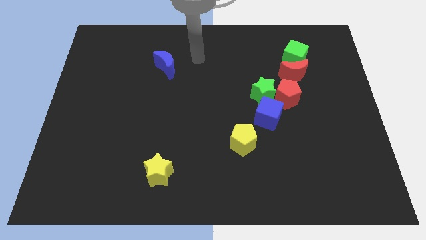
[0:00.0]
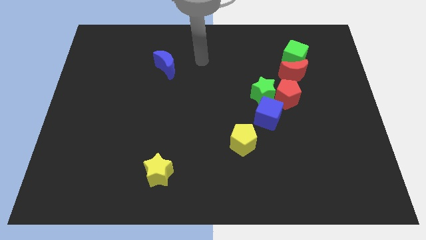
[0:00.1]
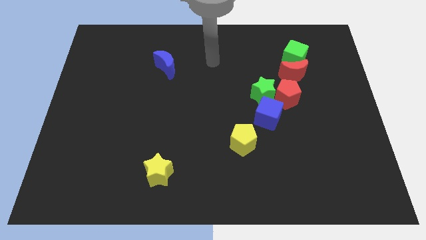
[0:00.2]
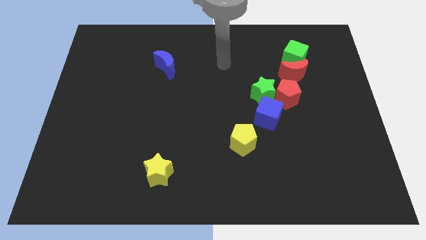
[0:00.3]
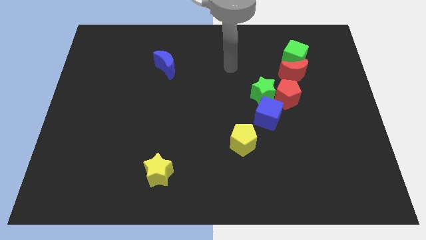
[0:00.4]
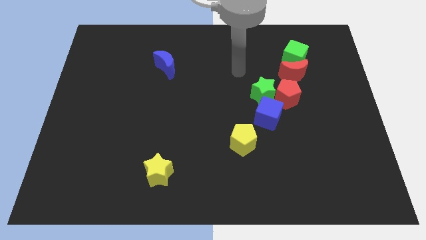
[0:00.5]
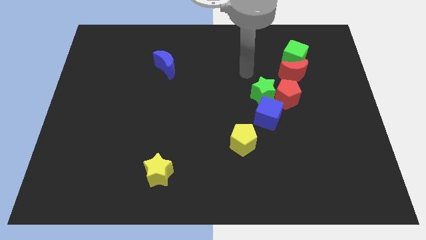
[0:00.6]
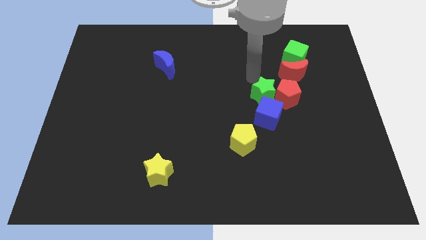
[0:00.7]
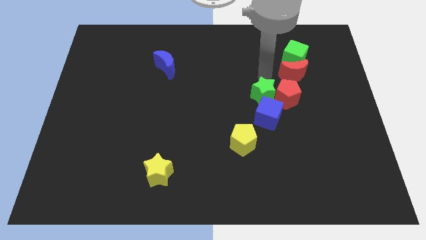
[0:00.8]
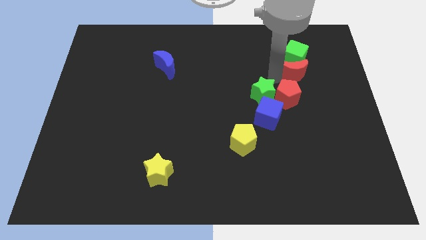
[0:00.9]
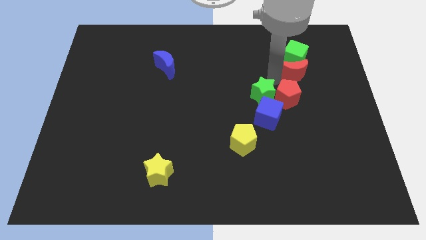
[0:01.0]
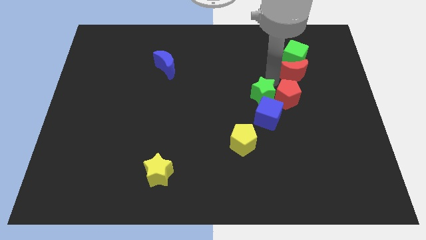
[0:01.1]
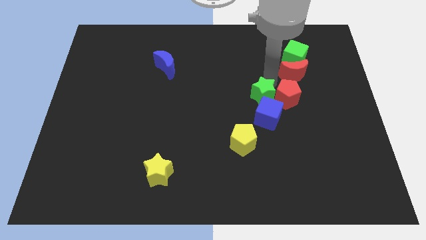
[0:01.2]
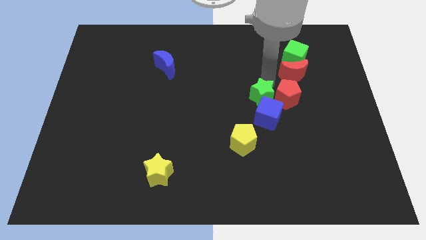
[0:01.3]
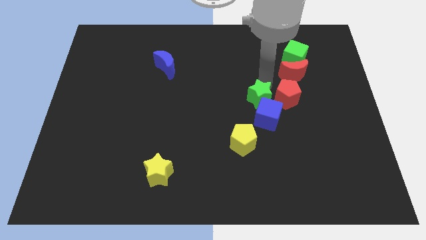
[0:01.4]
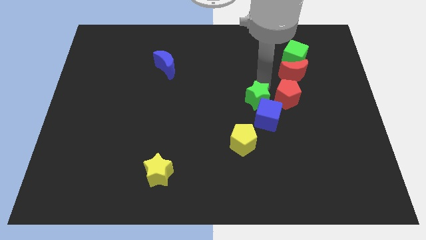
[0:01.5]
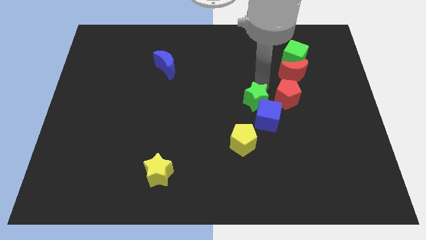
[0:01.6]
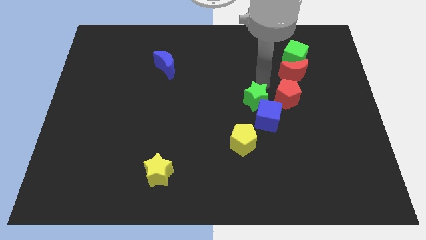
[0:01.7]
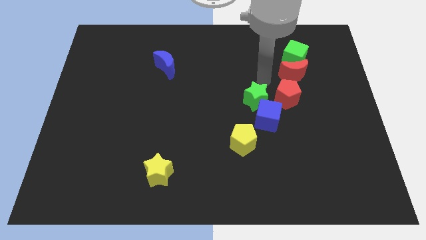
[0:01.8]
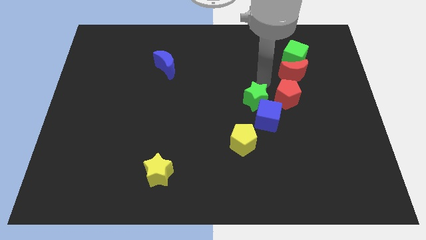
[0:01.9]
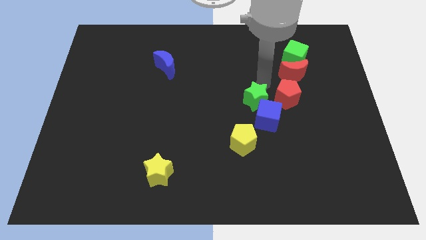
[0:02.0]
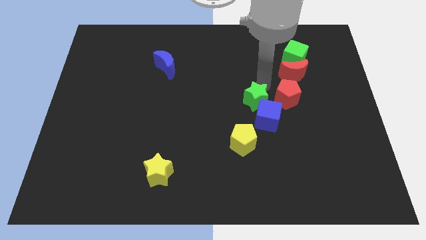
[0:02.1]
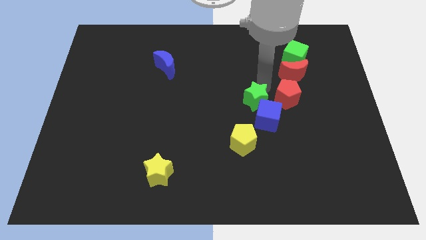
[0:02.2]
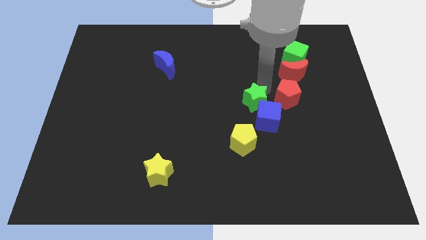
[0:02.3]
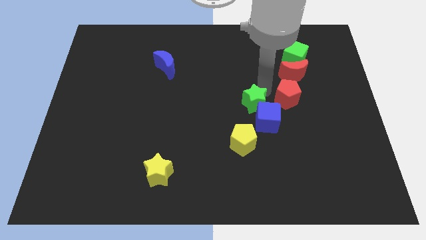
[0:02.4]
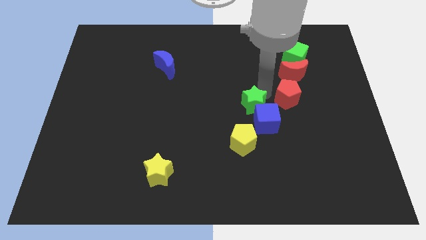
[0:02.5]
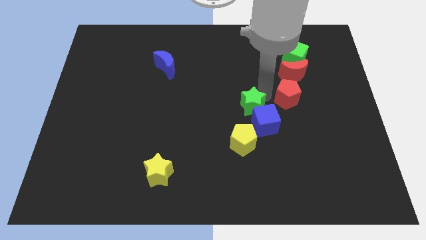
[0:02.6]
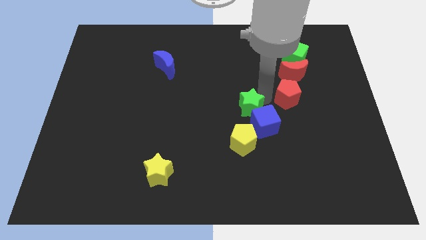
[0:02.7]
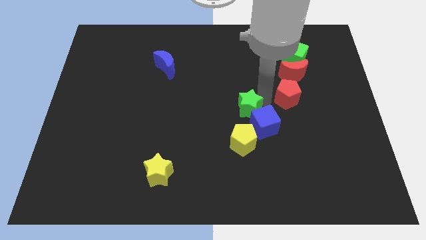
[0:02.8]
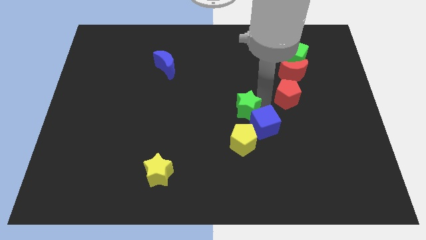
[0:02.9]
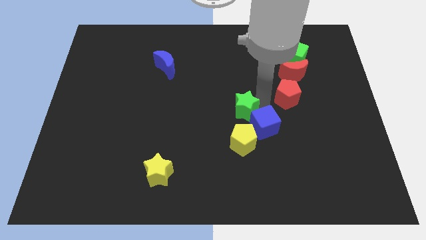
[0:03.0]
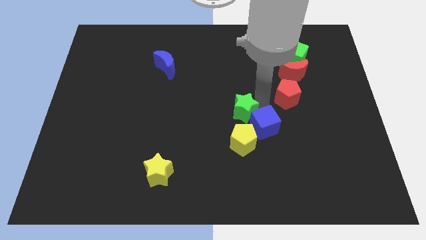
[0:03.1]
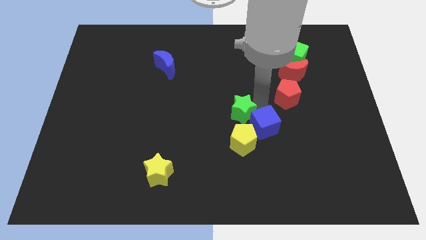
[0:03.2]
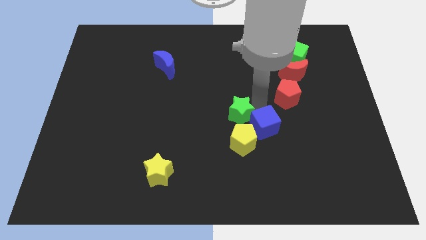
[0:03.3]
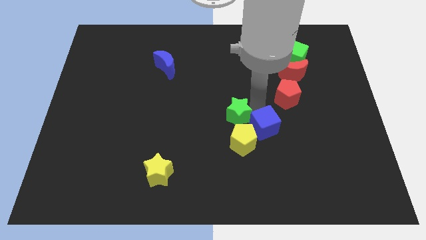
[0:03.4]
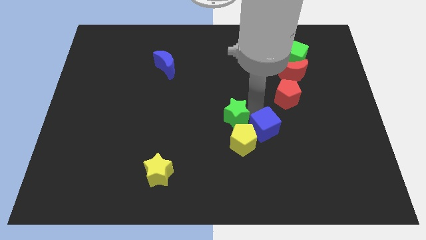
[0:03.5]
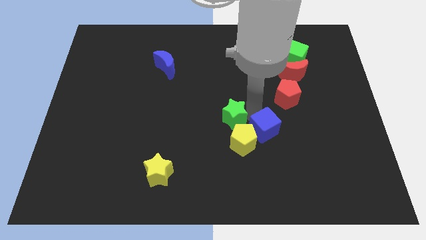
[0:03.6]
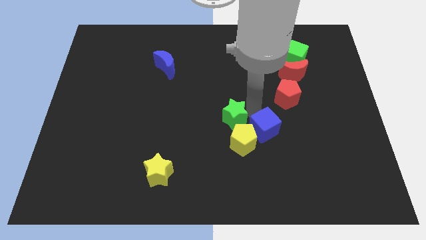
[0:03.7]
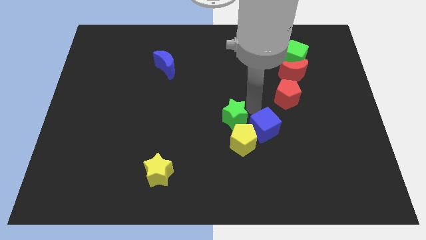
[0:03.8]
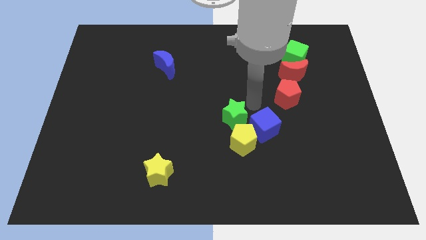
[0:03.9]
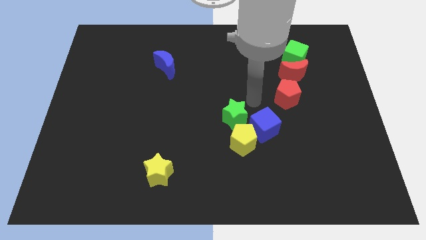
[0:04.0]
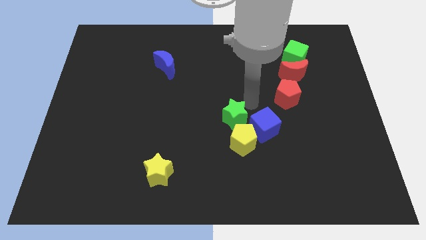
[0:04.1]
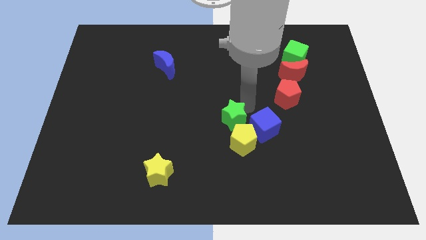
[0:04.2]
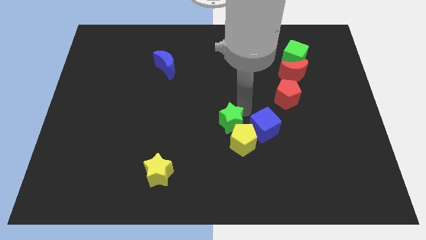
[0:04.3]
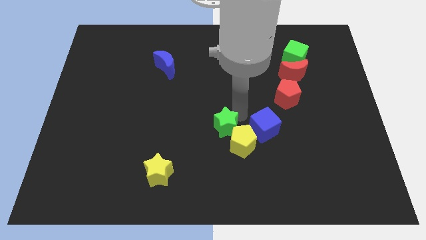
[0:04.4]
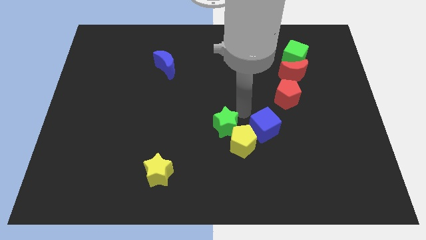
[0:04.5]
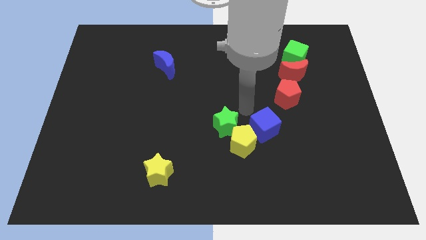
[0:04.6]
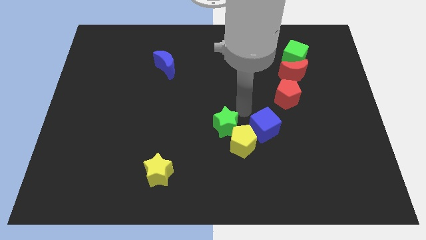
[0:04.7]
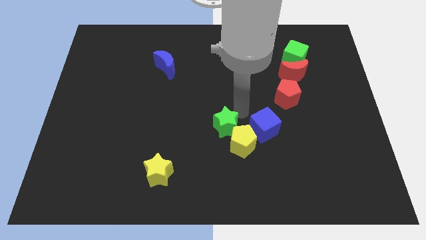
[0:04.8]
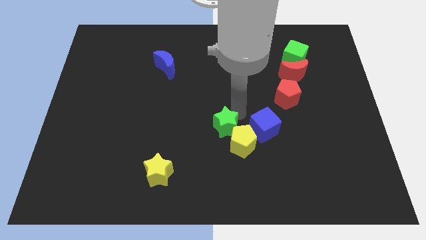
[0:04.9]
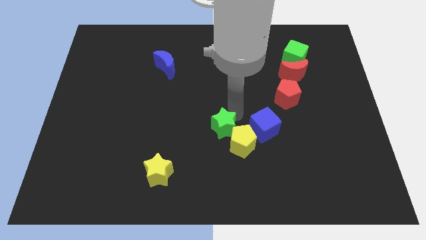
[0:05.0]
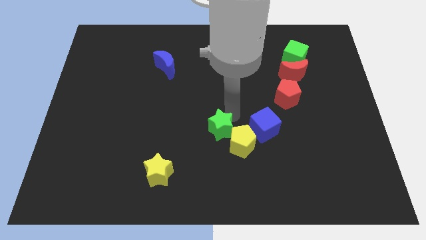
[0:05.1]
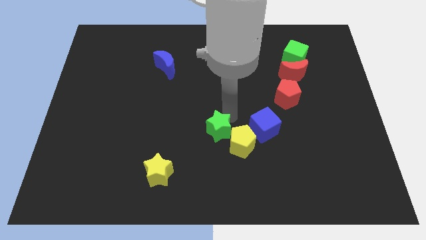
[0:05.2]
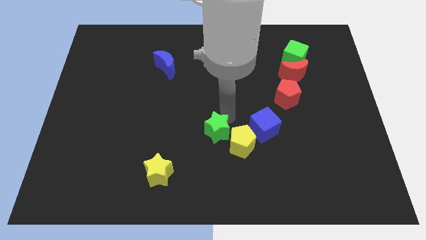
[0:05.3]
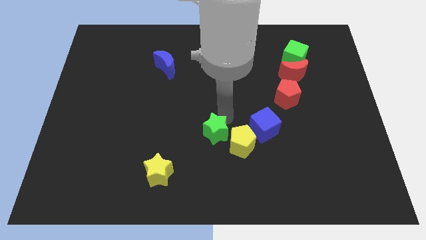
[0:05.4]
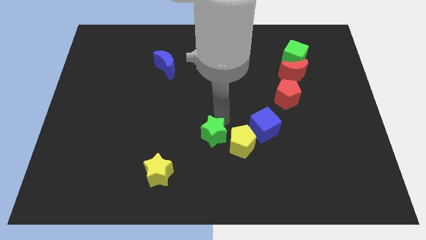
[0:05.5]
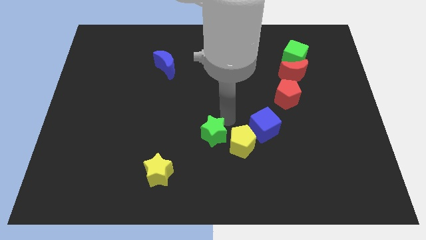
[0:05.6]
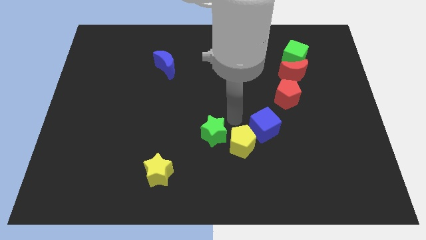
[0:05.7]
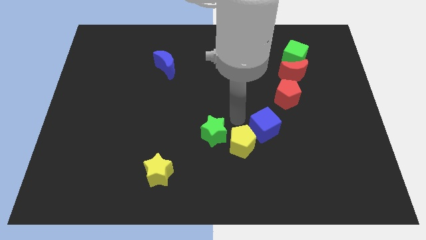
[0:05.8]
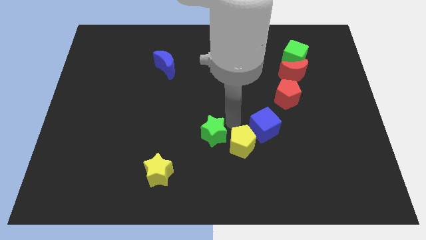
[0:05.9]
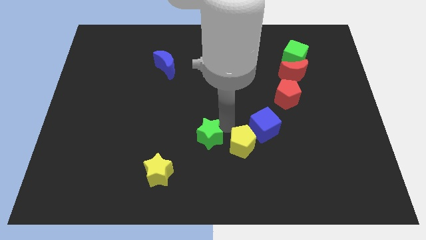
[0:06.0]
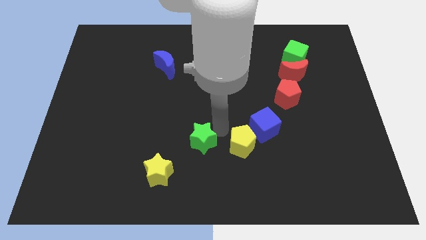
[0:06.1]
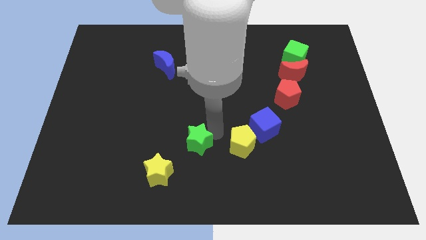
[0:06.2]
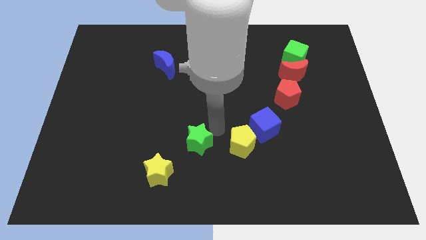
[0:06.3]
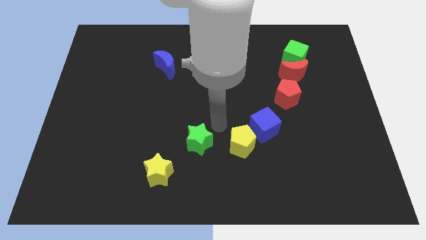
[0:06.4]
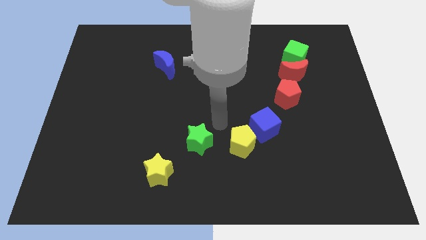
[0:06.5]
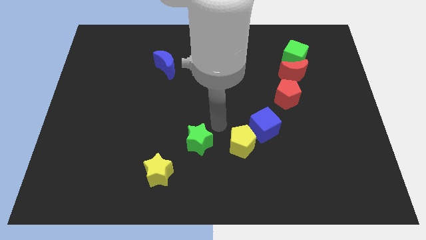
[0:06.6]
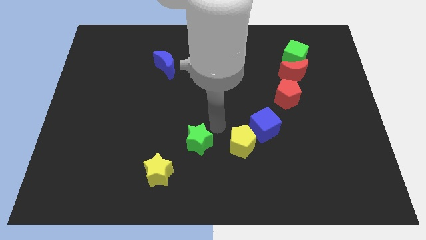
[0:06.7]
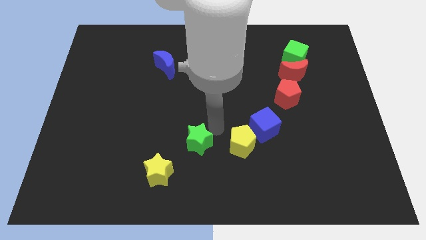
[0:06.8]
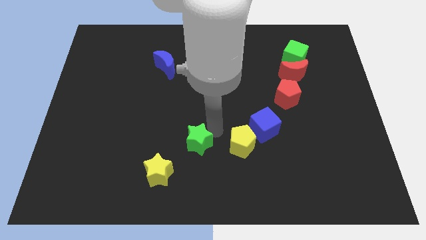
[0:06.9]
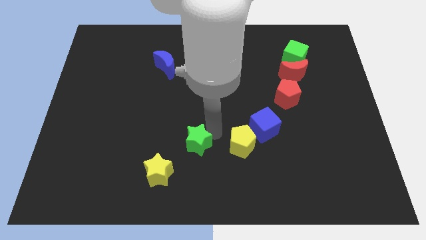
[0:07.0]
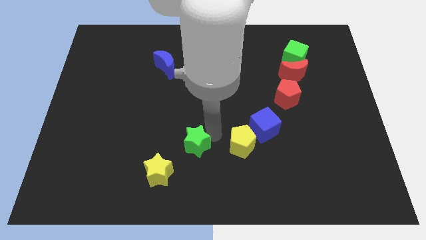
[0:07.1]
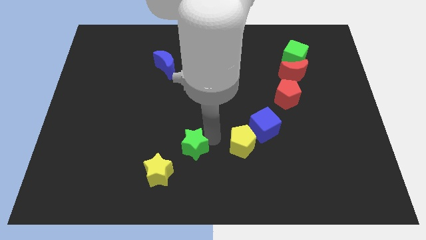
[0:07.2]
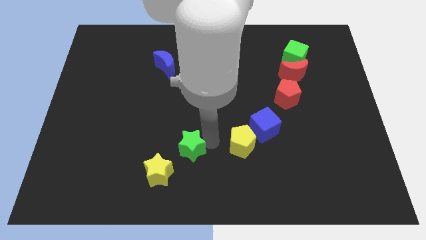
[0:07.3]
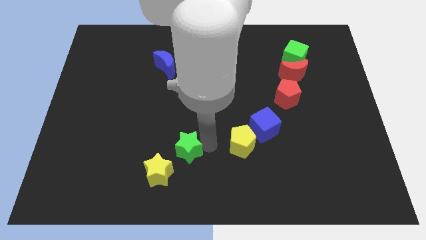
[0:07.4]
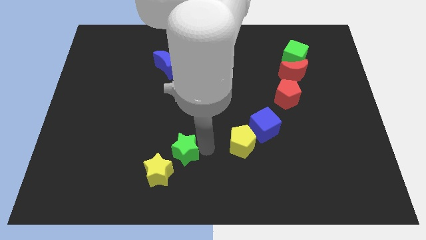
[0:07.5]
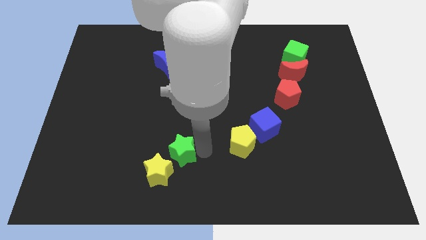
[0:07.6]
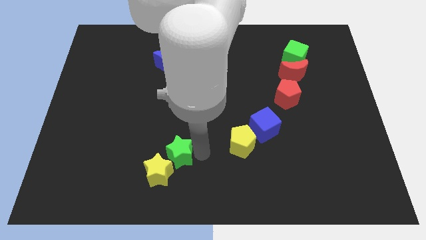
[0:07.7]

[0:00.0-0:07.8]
slide the green star next to the yellow star
